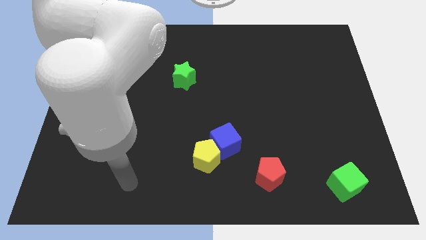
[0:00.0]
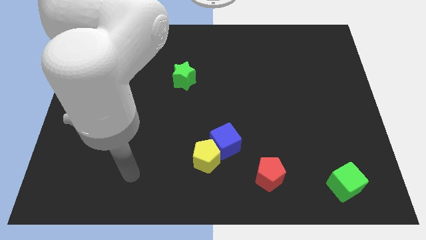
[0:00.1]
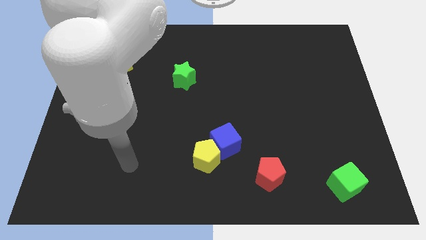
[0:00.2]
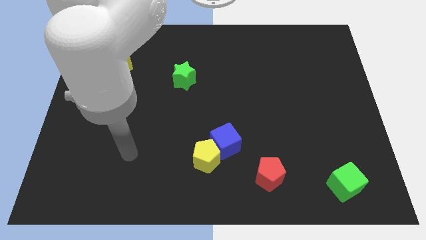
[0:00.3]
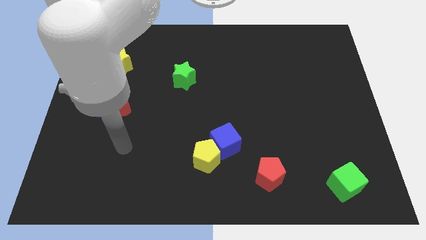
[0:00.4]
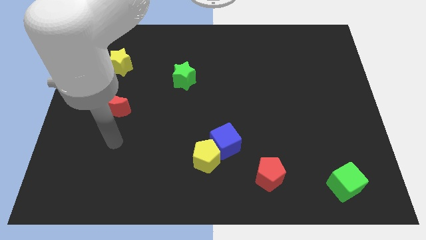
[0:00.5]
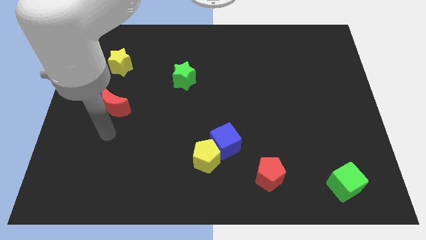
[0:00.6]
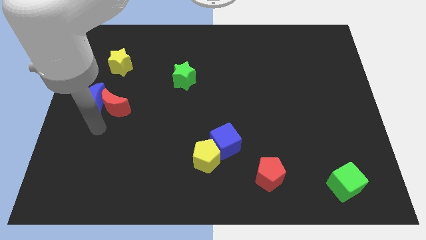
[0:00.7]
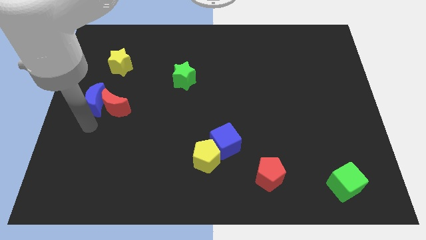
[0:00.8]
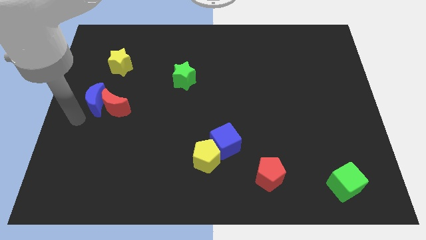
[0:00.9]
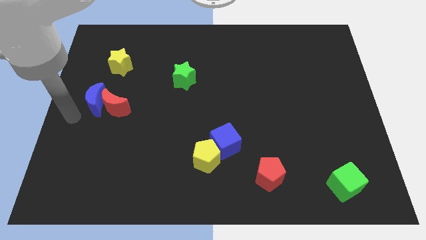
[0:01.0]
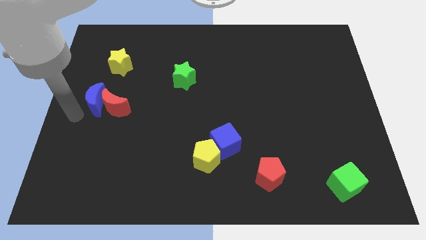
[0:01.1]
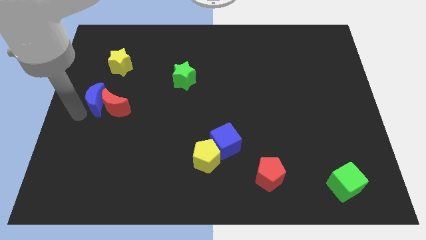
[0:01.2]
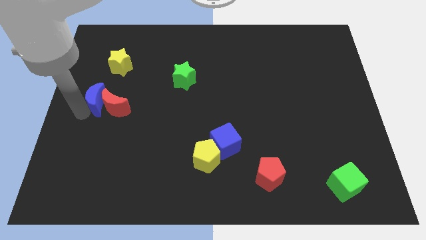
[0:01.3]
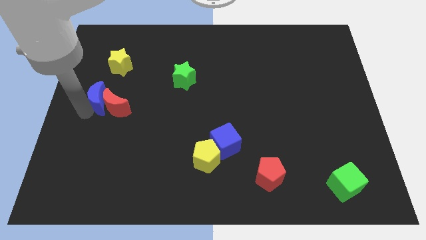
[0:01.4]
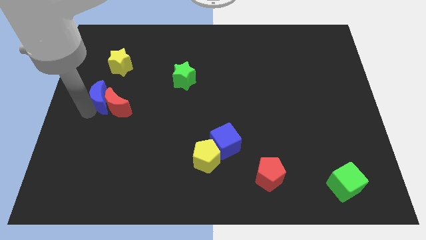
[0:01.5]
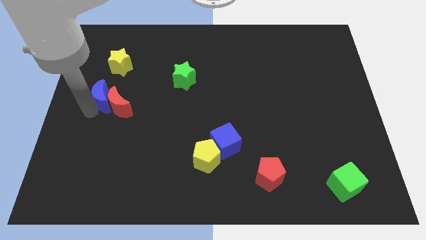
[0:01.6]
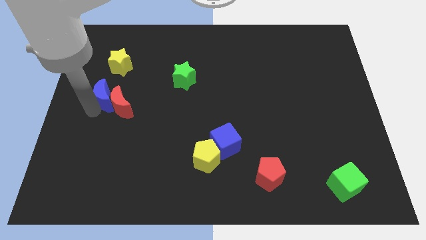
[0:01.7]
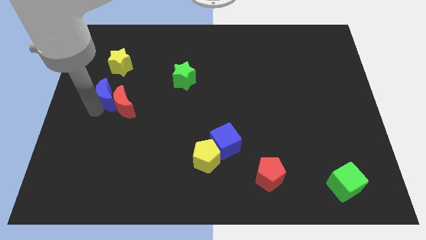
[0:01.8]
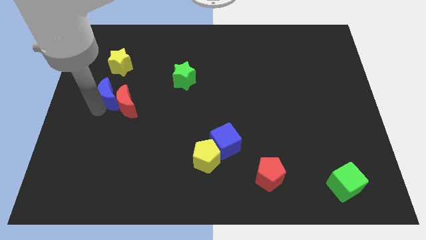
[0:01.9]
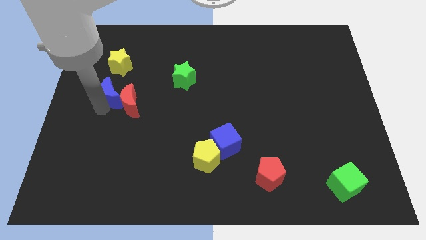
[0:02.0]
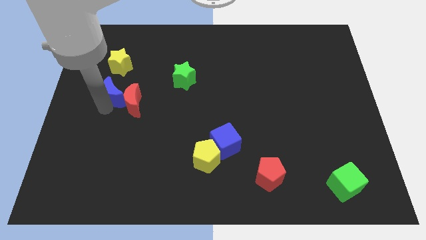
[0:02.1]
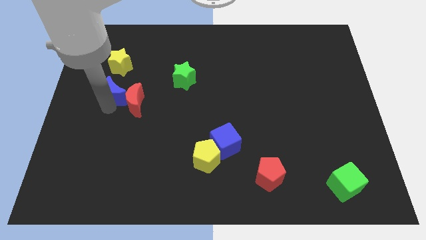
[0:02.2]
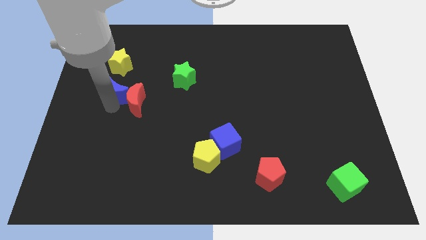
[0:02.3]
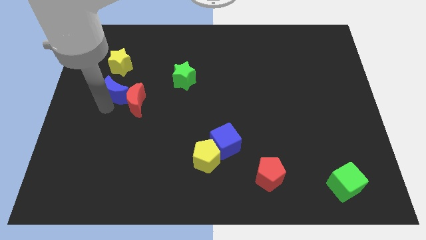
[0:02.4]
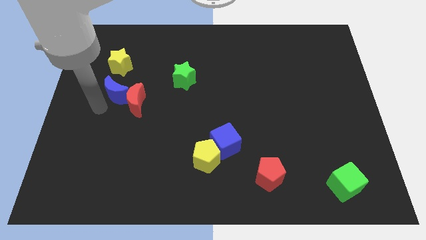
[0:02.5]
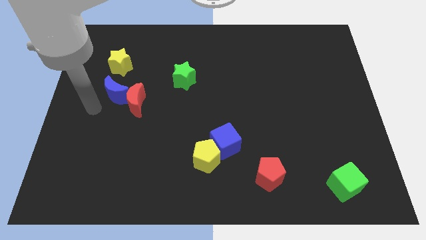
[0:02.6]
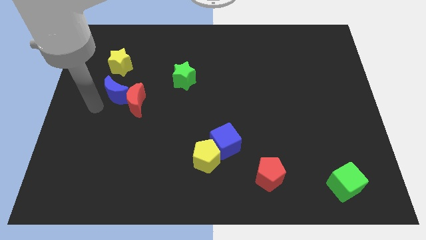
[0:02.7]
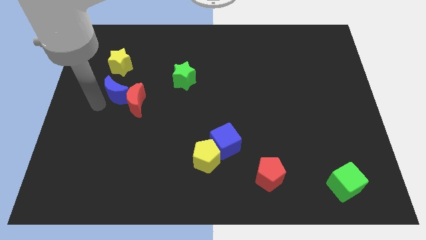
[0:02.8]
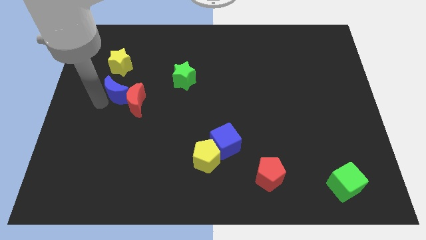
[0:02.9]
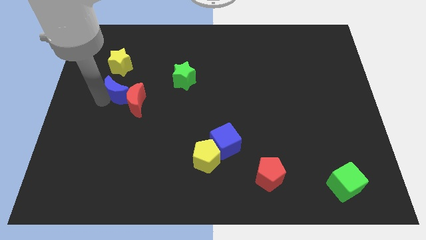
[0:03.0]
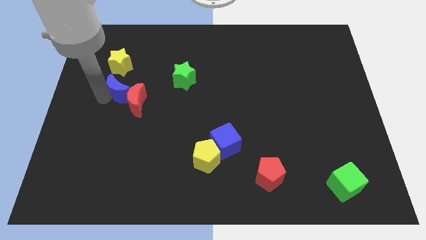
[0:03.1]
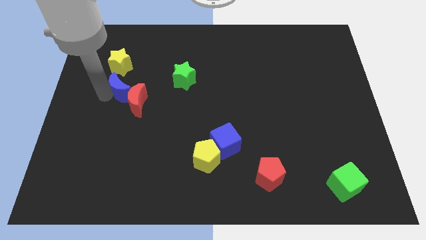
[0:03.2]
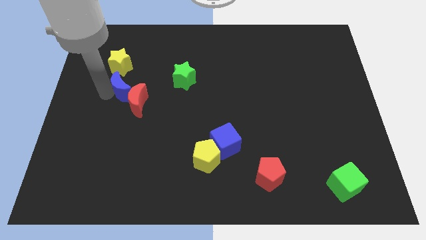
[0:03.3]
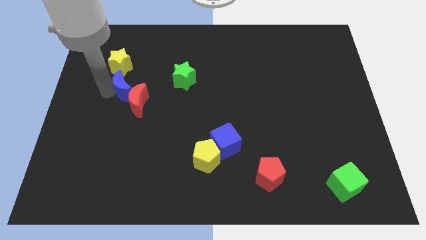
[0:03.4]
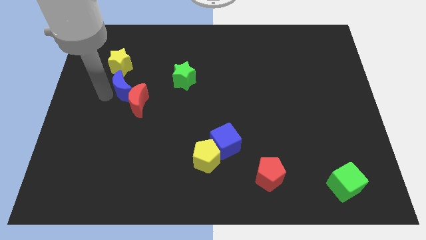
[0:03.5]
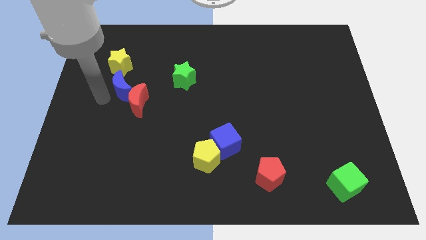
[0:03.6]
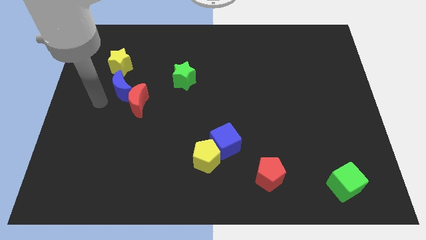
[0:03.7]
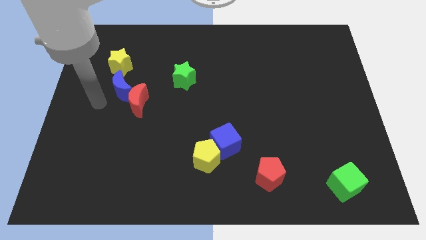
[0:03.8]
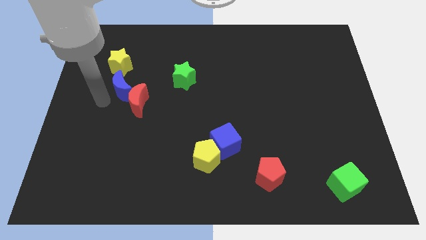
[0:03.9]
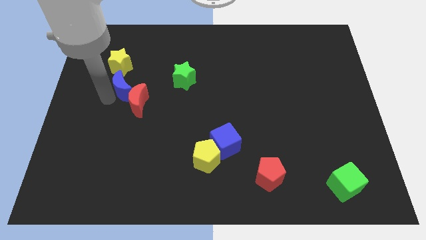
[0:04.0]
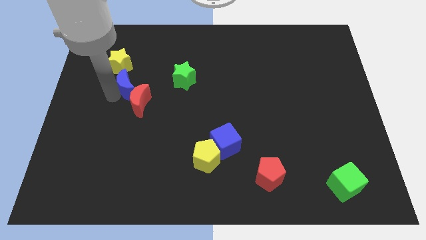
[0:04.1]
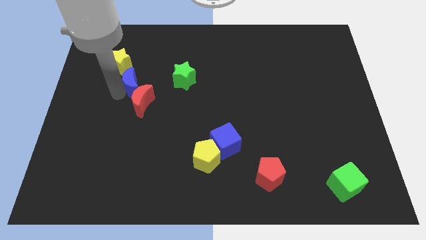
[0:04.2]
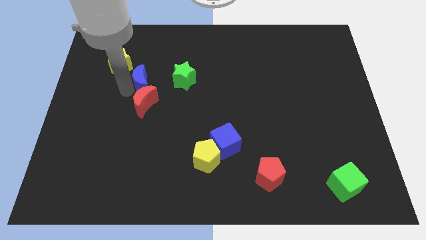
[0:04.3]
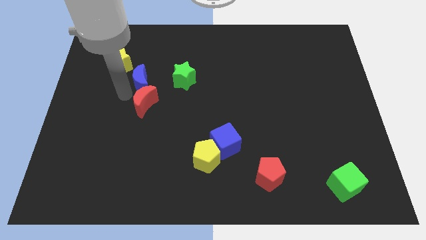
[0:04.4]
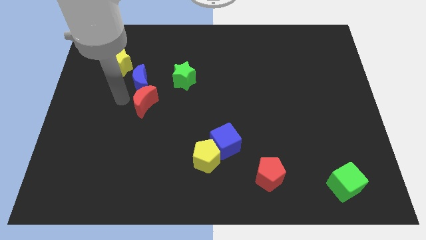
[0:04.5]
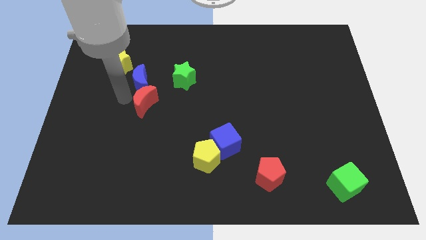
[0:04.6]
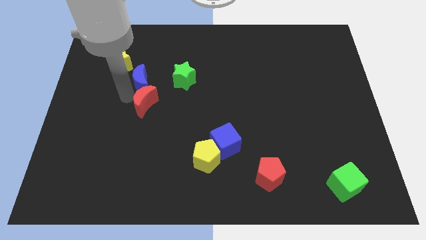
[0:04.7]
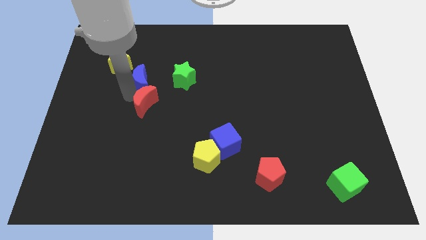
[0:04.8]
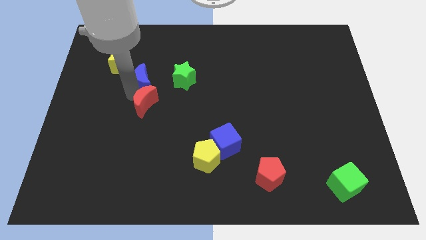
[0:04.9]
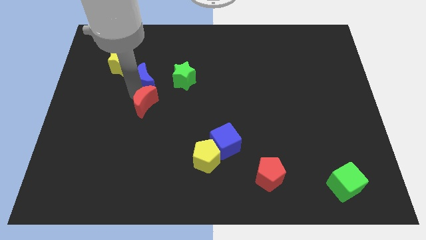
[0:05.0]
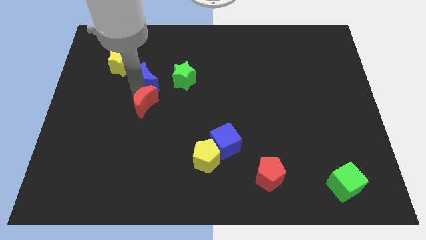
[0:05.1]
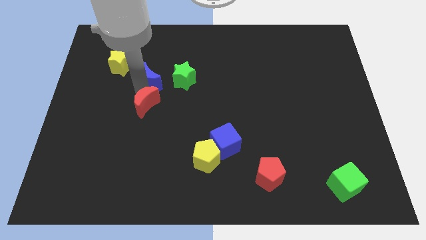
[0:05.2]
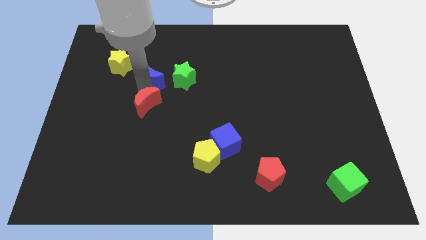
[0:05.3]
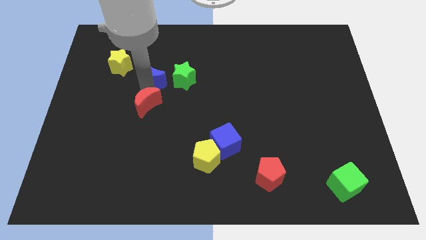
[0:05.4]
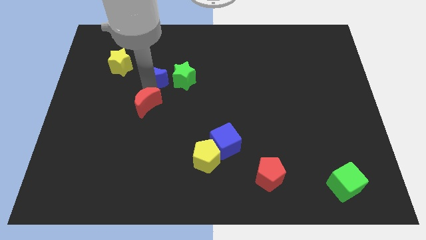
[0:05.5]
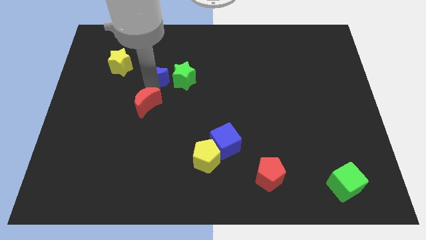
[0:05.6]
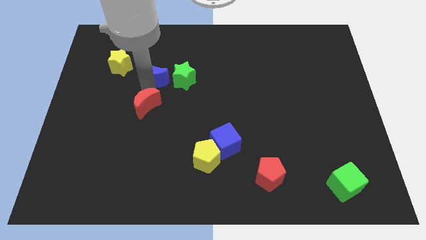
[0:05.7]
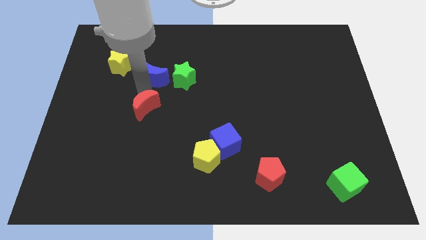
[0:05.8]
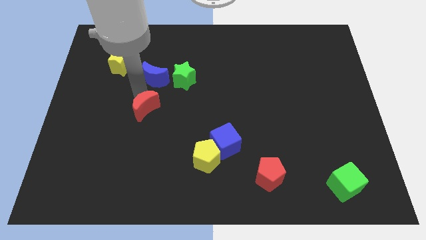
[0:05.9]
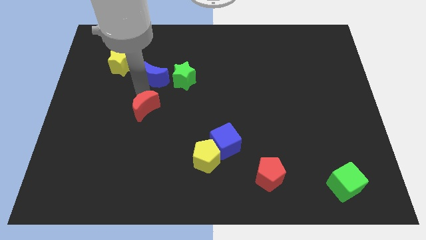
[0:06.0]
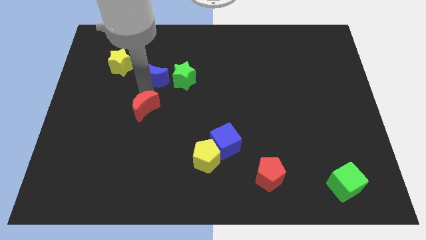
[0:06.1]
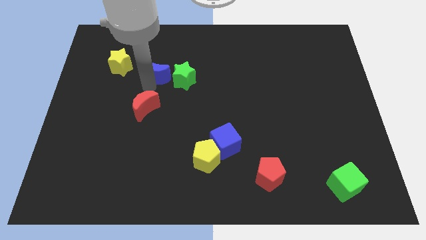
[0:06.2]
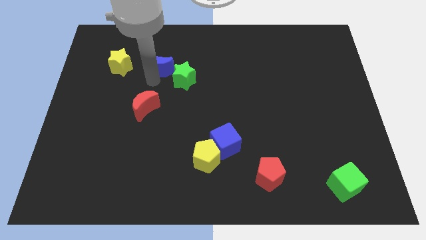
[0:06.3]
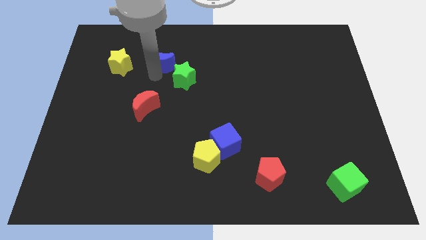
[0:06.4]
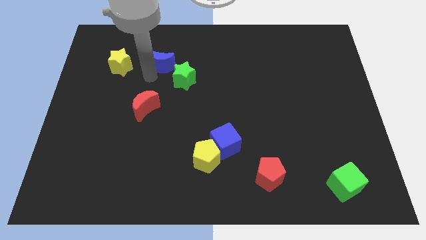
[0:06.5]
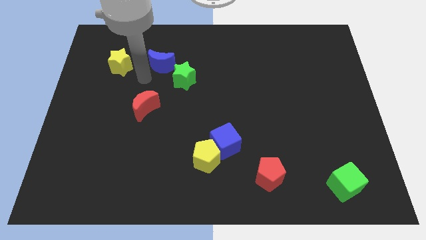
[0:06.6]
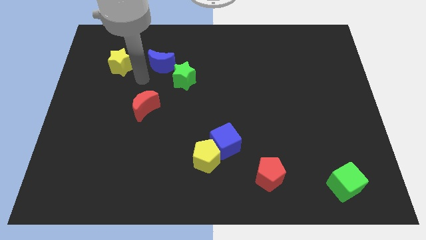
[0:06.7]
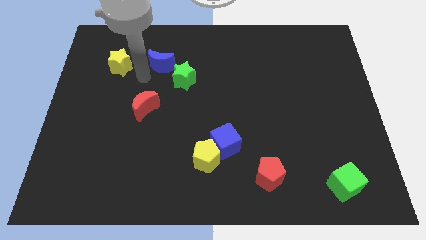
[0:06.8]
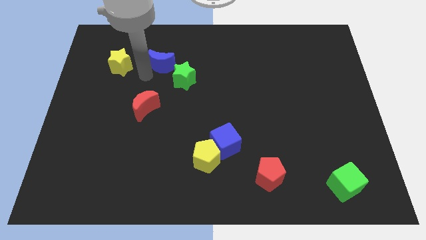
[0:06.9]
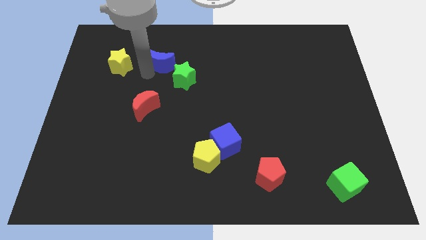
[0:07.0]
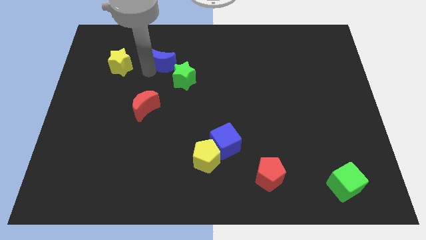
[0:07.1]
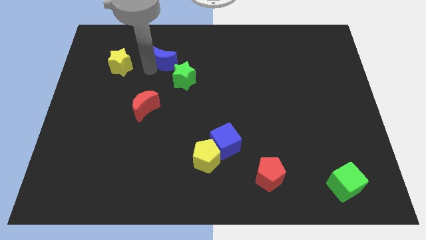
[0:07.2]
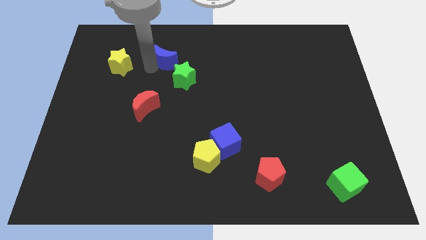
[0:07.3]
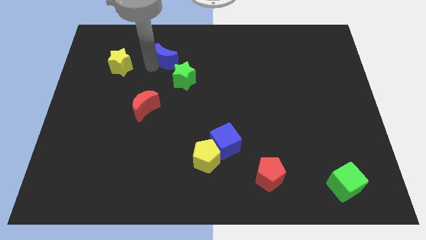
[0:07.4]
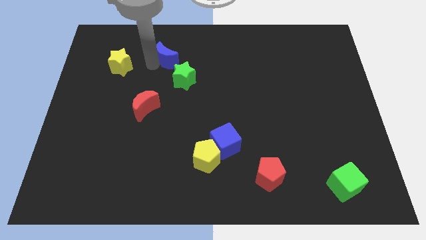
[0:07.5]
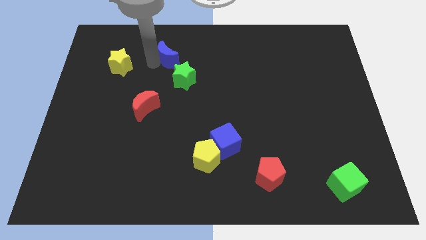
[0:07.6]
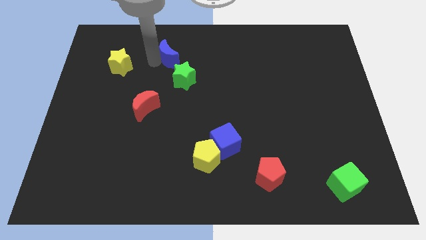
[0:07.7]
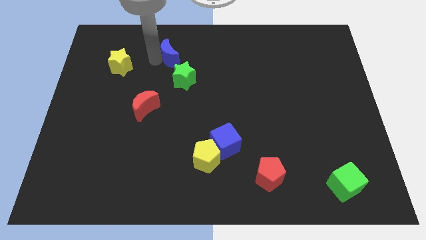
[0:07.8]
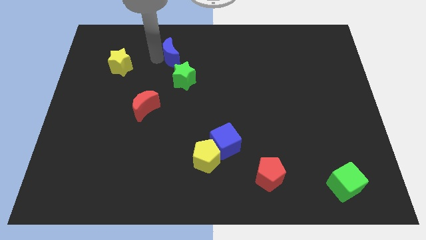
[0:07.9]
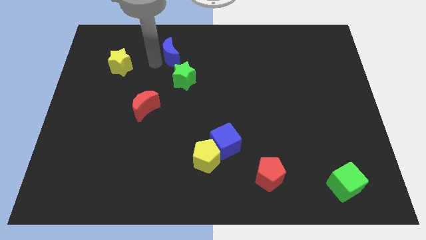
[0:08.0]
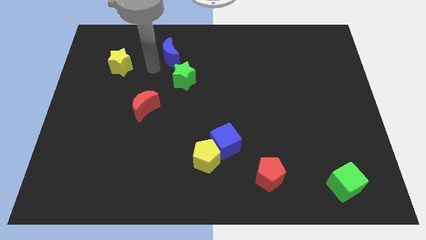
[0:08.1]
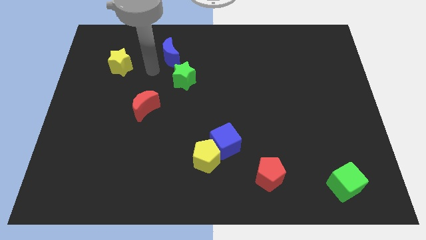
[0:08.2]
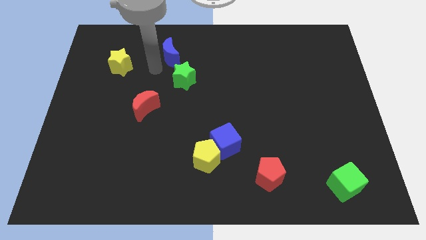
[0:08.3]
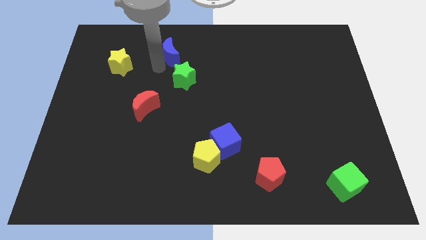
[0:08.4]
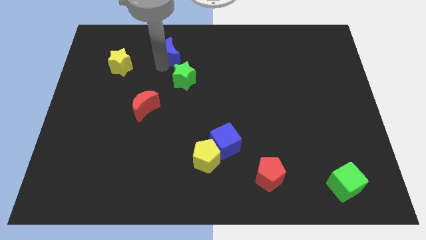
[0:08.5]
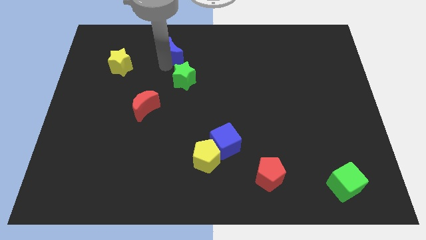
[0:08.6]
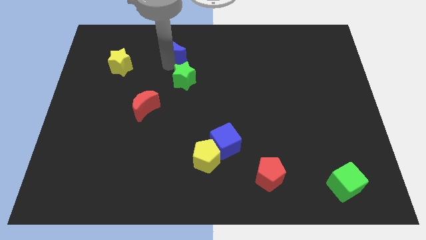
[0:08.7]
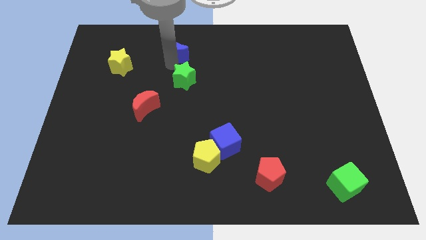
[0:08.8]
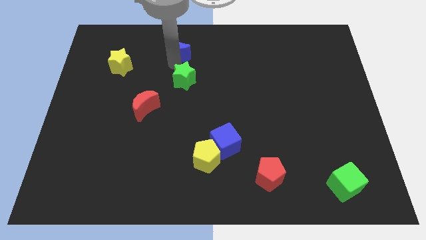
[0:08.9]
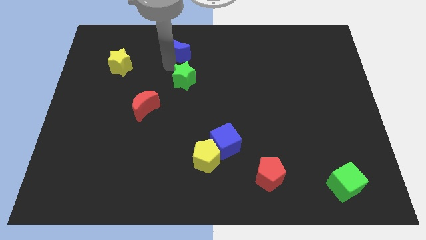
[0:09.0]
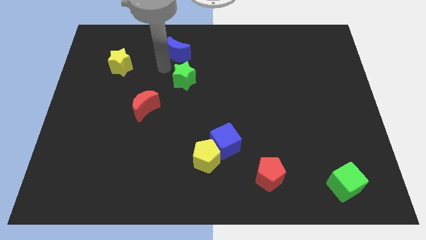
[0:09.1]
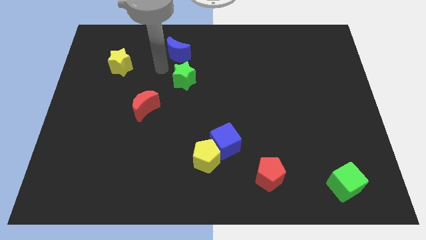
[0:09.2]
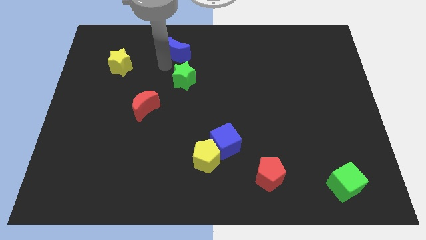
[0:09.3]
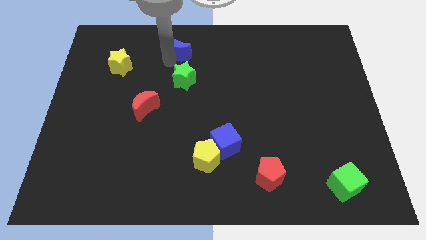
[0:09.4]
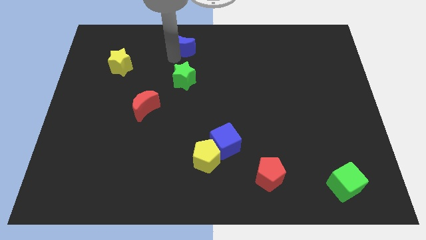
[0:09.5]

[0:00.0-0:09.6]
slide the blue moon to the top side
